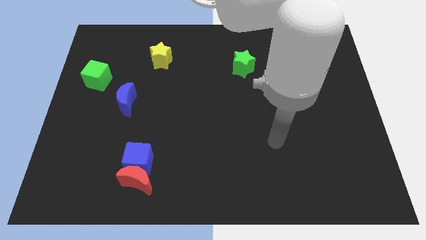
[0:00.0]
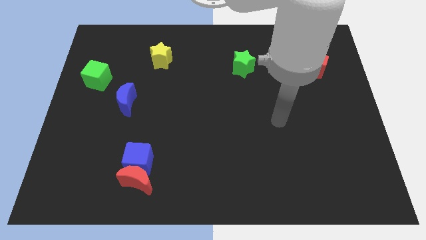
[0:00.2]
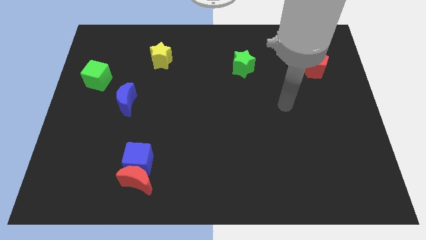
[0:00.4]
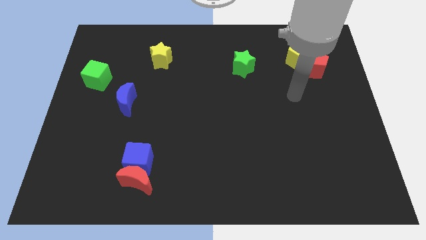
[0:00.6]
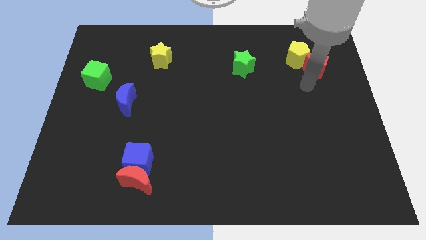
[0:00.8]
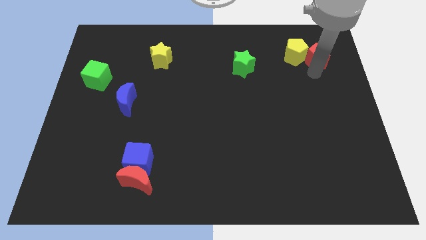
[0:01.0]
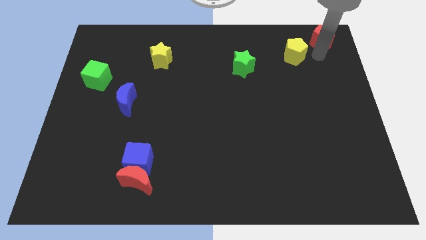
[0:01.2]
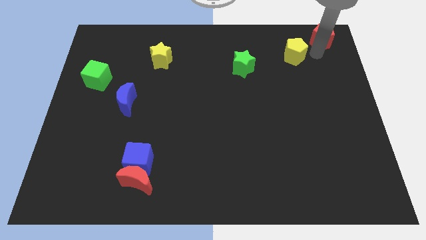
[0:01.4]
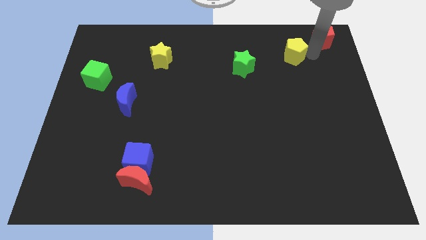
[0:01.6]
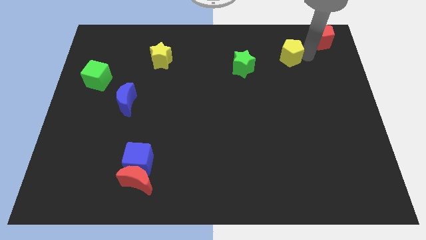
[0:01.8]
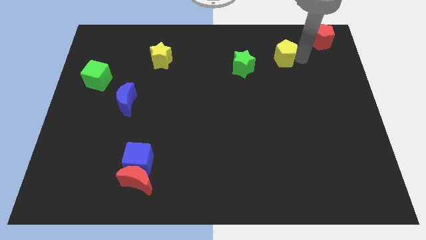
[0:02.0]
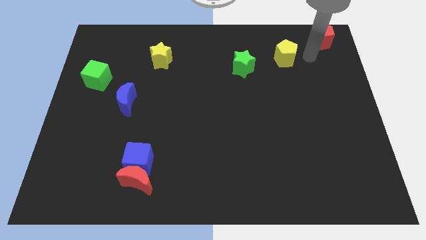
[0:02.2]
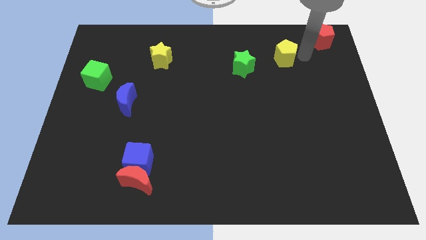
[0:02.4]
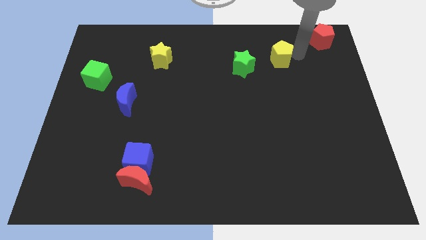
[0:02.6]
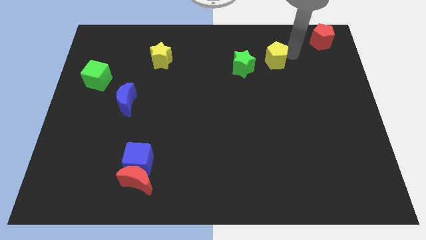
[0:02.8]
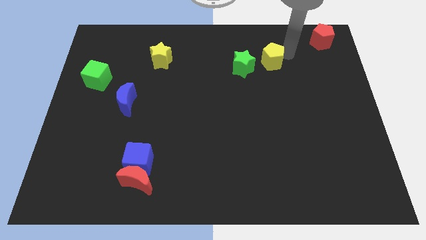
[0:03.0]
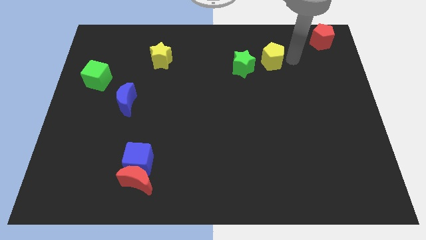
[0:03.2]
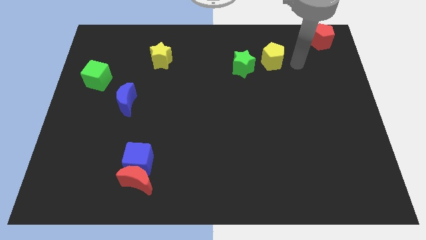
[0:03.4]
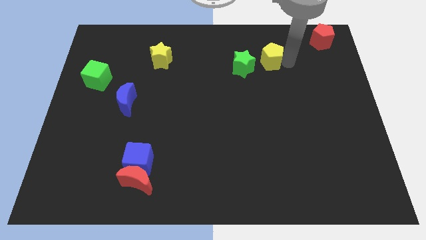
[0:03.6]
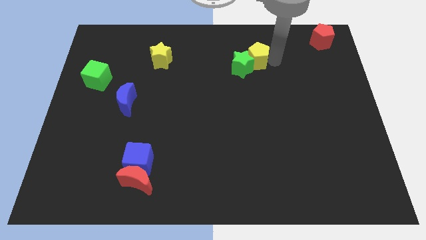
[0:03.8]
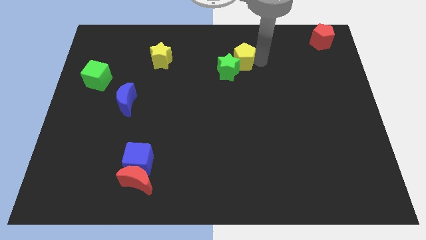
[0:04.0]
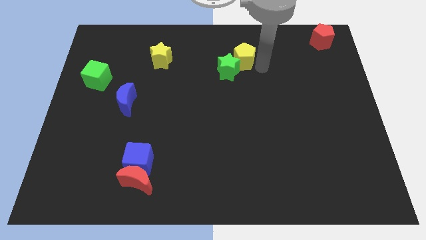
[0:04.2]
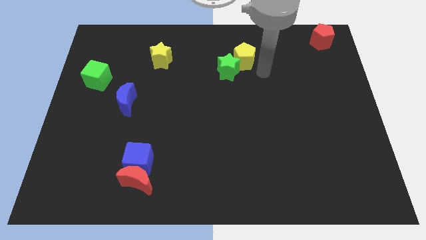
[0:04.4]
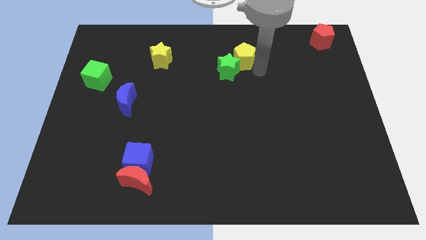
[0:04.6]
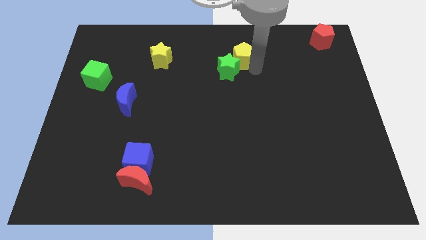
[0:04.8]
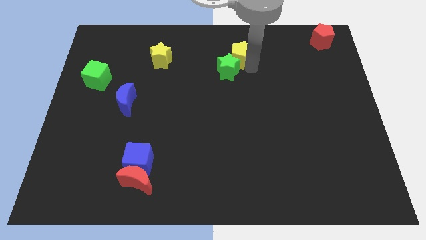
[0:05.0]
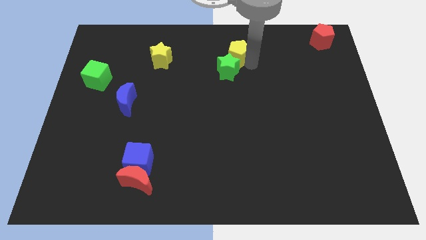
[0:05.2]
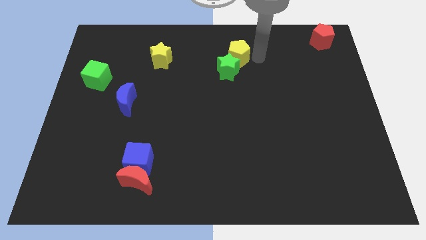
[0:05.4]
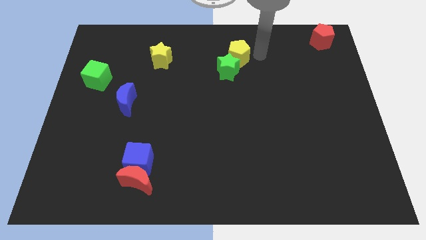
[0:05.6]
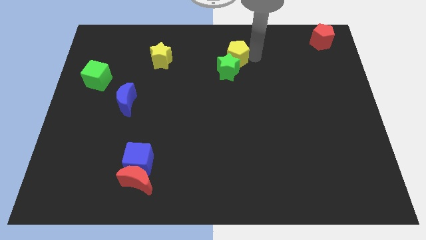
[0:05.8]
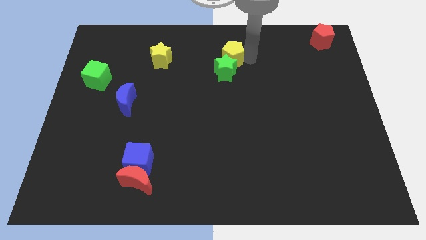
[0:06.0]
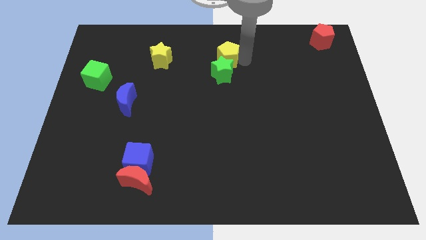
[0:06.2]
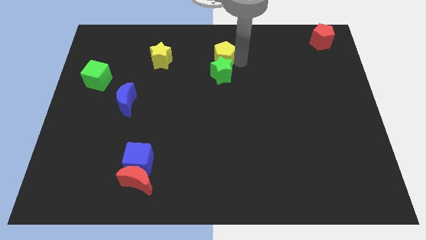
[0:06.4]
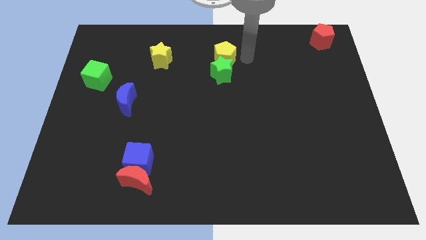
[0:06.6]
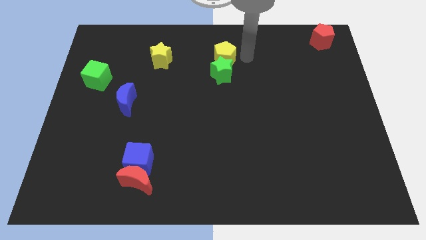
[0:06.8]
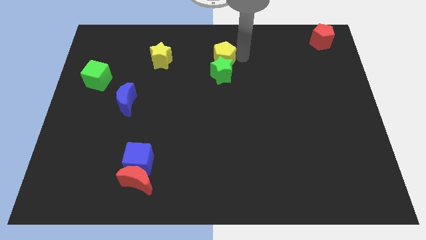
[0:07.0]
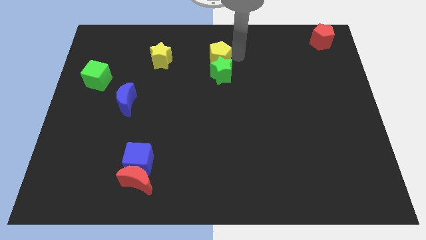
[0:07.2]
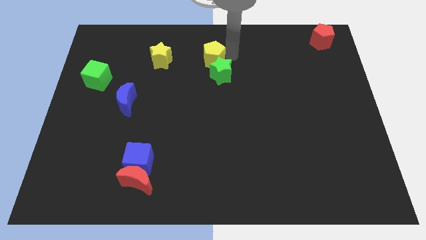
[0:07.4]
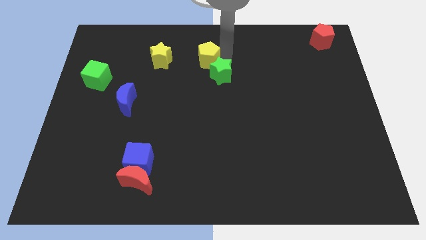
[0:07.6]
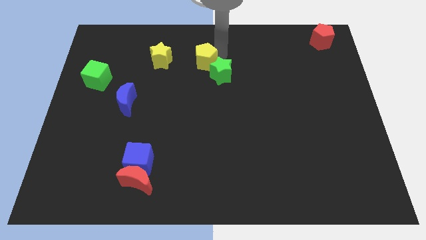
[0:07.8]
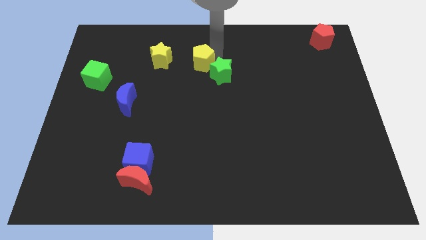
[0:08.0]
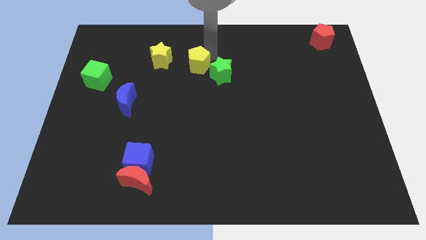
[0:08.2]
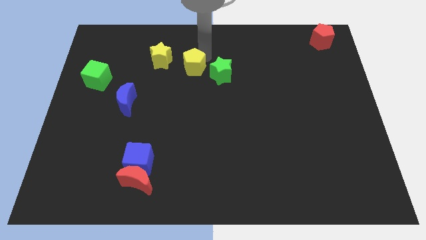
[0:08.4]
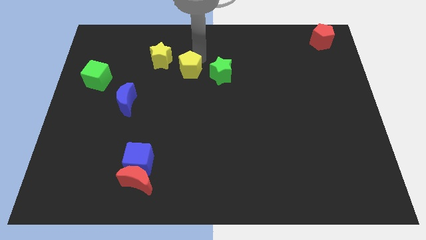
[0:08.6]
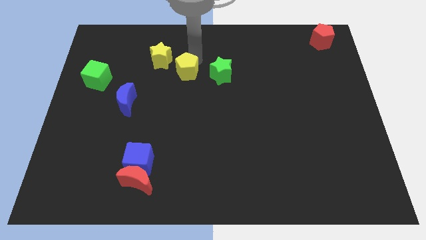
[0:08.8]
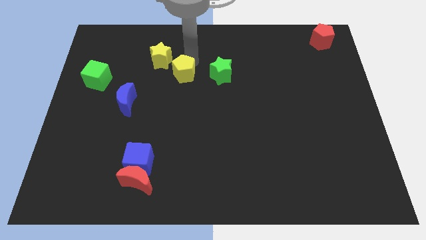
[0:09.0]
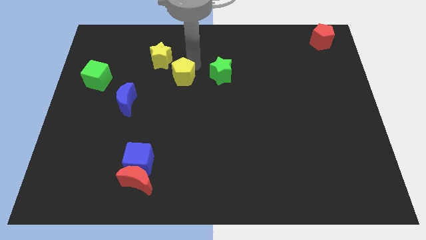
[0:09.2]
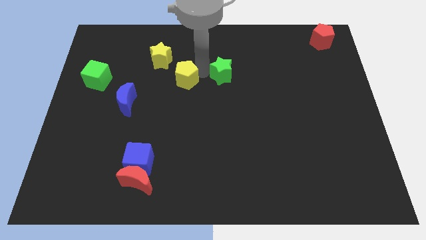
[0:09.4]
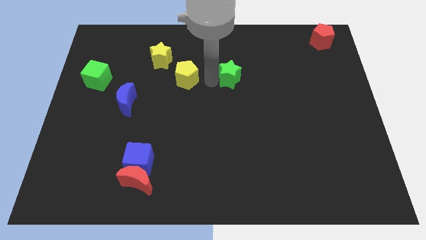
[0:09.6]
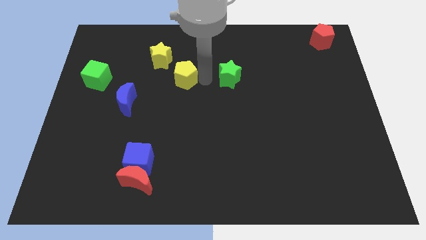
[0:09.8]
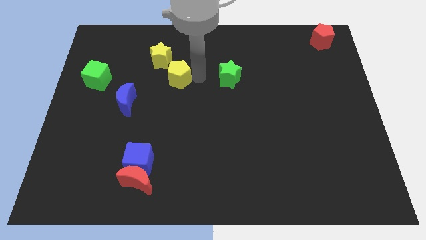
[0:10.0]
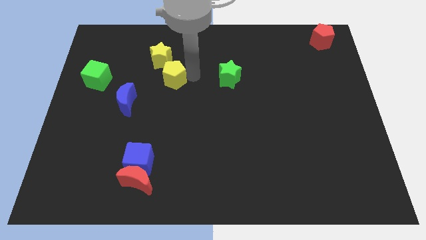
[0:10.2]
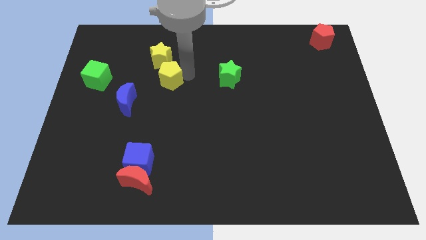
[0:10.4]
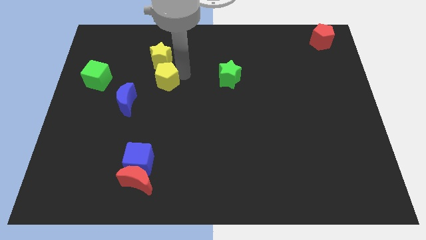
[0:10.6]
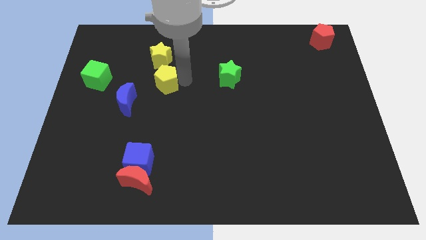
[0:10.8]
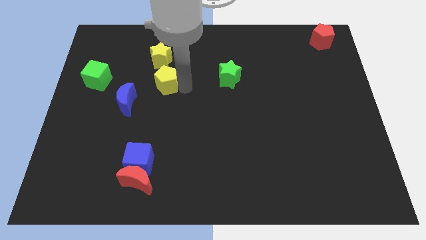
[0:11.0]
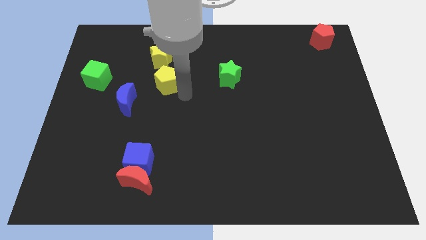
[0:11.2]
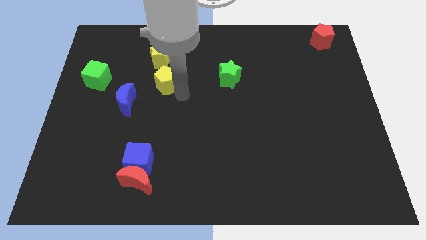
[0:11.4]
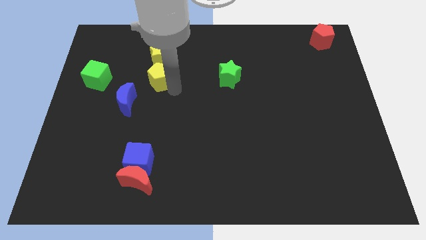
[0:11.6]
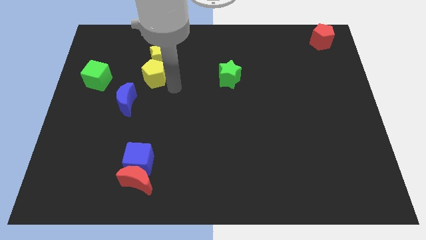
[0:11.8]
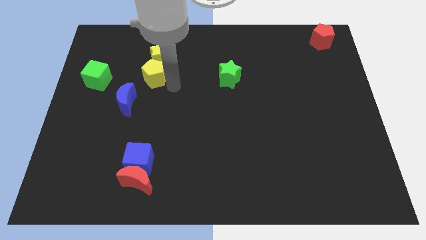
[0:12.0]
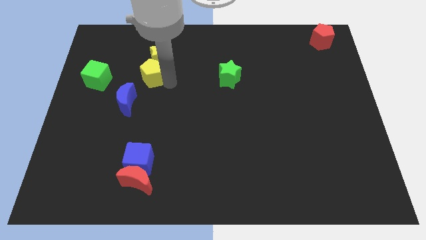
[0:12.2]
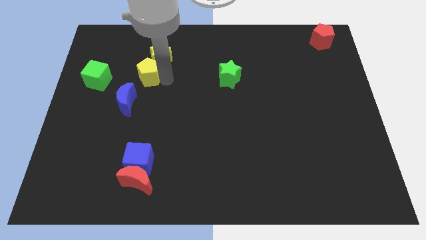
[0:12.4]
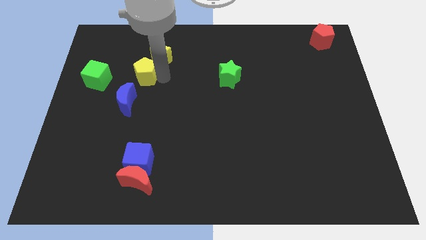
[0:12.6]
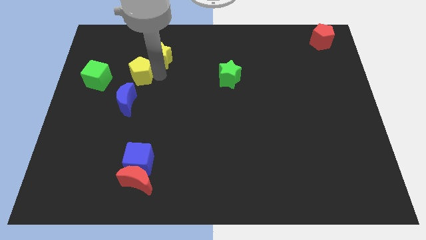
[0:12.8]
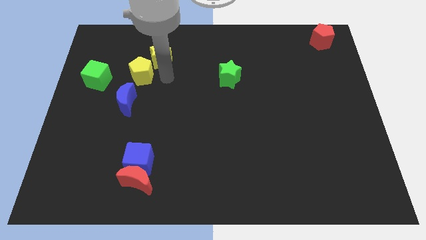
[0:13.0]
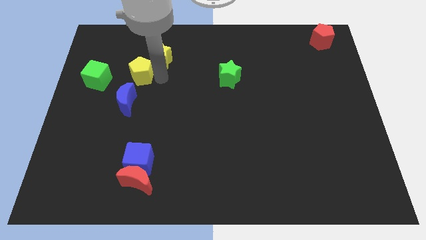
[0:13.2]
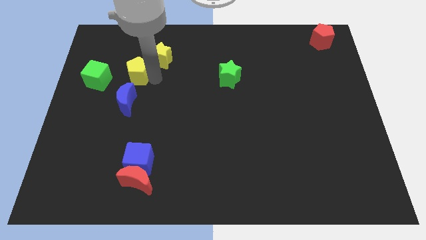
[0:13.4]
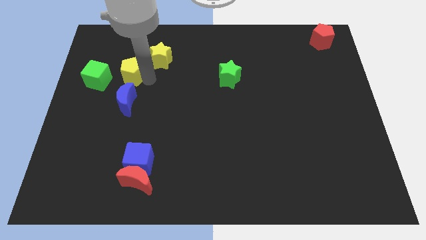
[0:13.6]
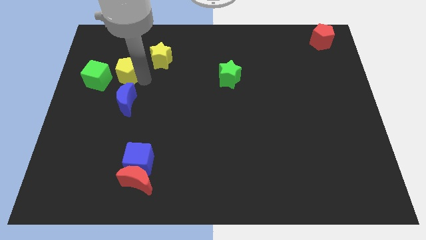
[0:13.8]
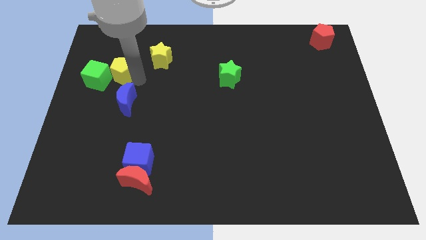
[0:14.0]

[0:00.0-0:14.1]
put the yellow pentagon to the green cube
